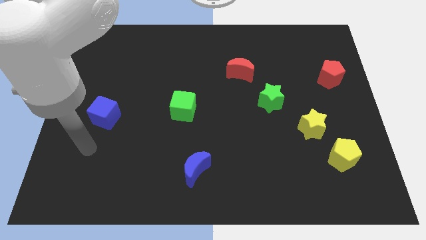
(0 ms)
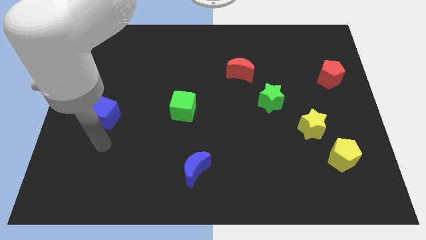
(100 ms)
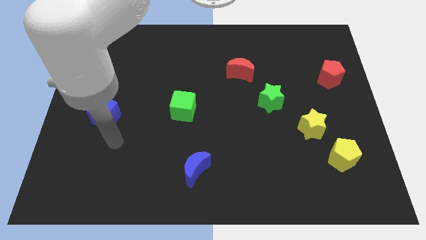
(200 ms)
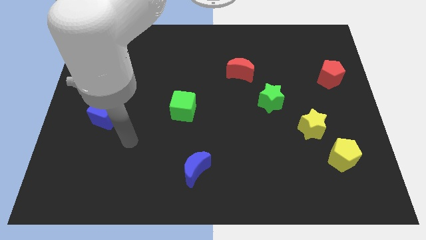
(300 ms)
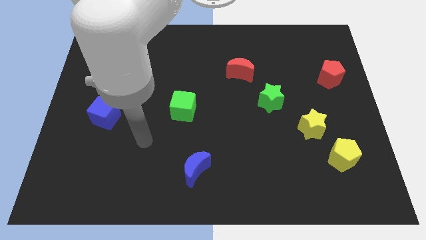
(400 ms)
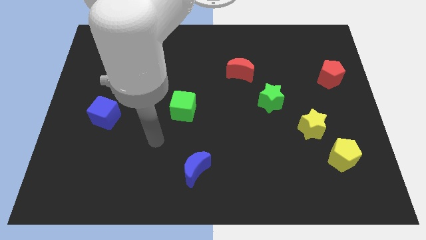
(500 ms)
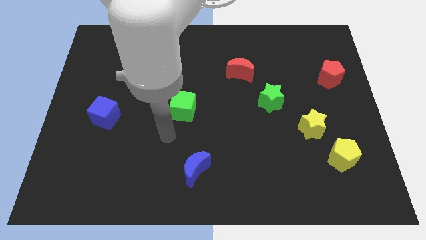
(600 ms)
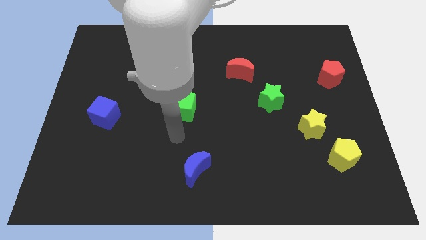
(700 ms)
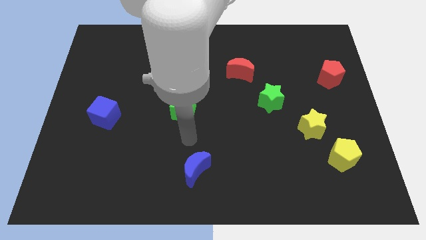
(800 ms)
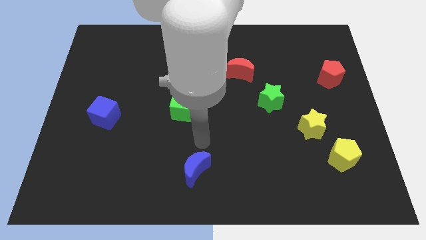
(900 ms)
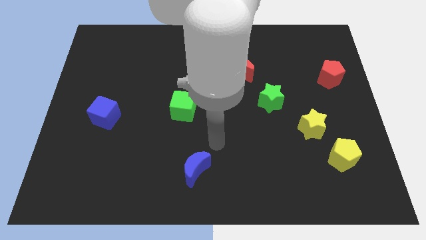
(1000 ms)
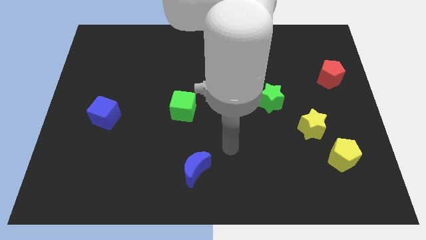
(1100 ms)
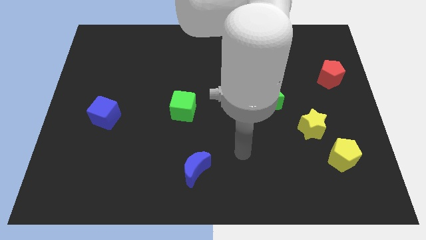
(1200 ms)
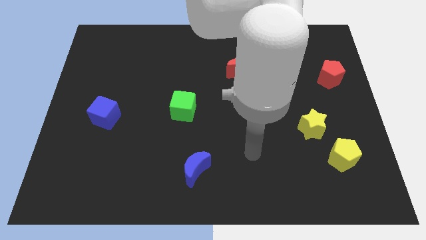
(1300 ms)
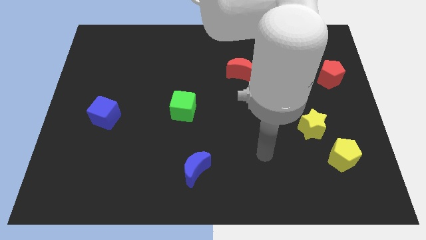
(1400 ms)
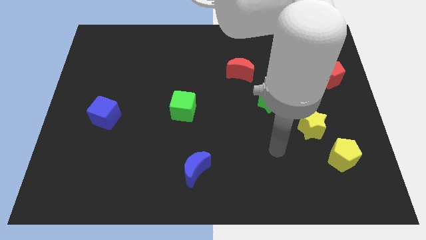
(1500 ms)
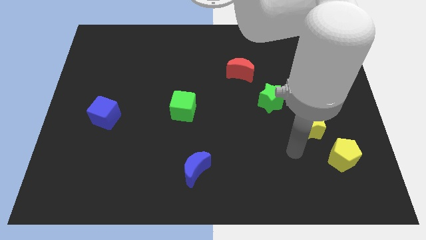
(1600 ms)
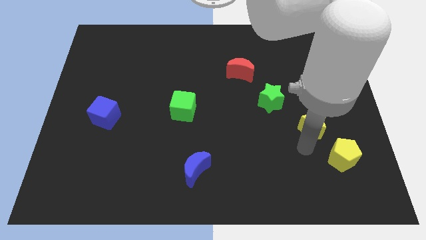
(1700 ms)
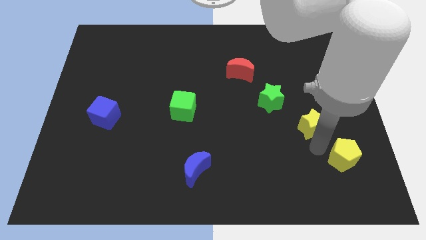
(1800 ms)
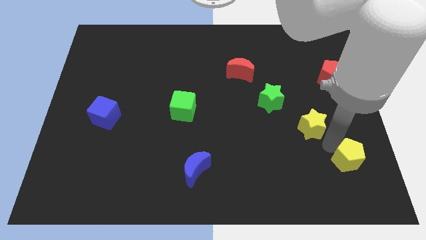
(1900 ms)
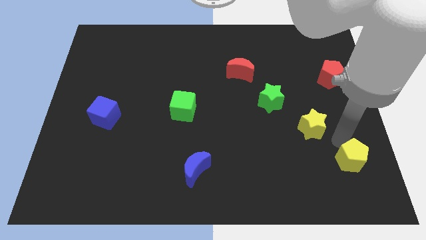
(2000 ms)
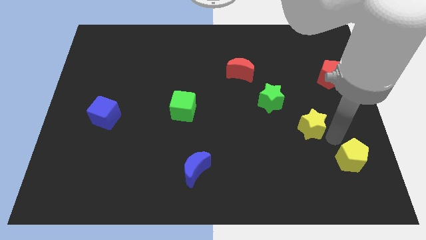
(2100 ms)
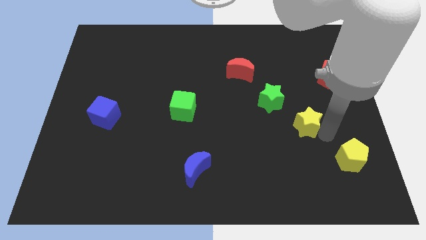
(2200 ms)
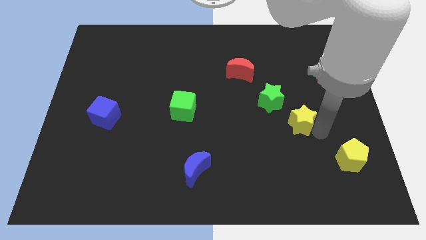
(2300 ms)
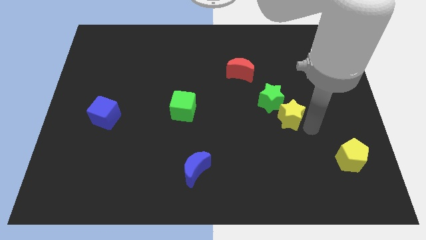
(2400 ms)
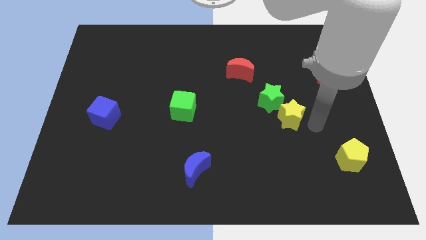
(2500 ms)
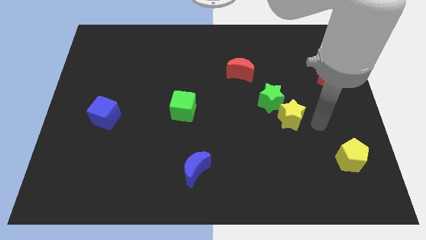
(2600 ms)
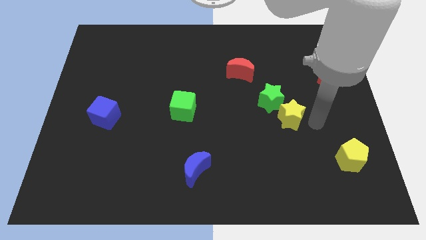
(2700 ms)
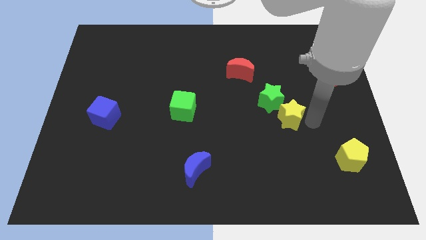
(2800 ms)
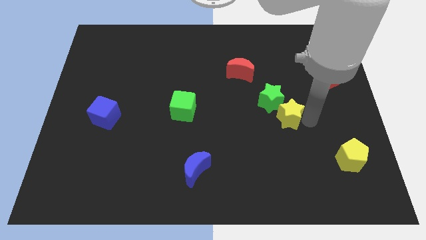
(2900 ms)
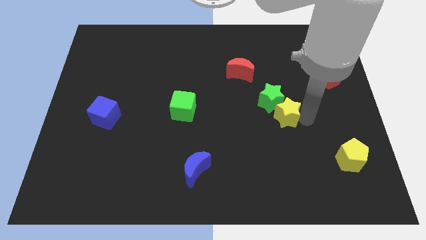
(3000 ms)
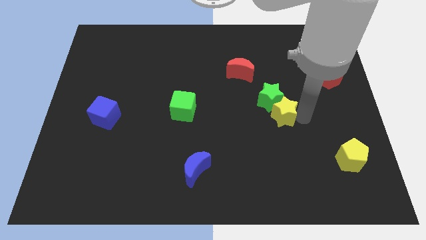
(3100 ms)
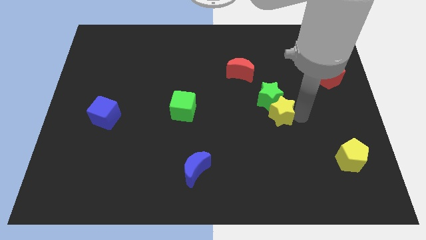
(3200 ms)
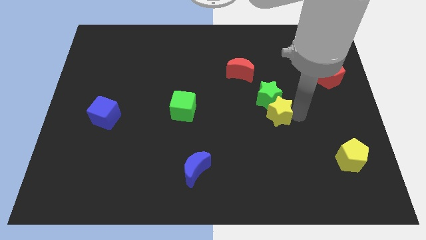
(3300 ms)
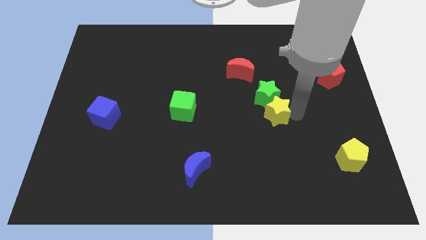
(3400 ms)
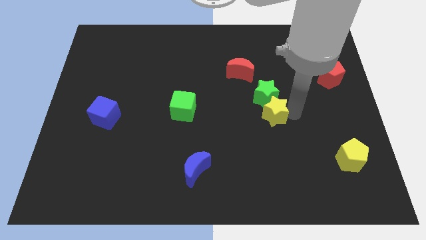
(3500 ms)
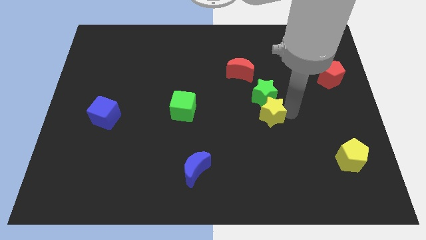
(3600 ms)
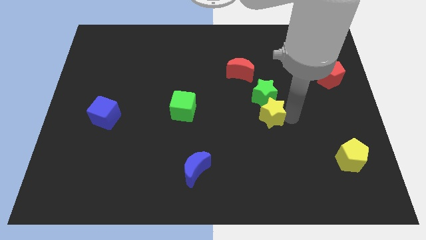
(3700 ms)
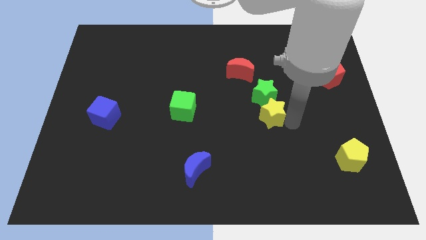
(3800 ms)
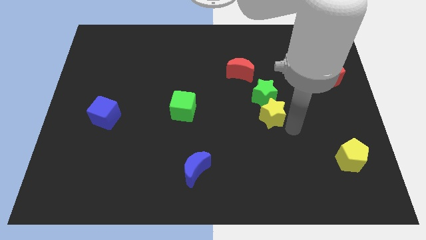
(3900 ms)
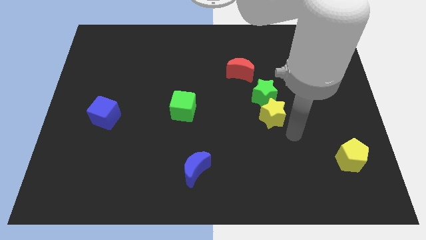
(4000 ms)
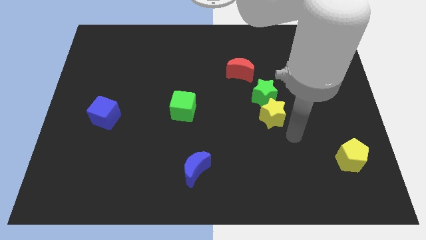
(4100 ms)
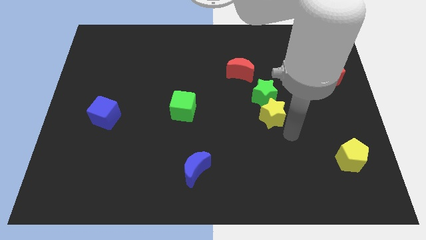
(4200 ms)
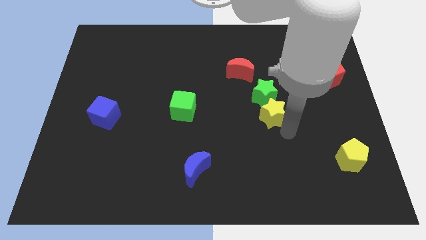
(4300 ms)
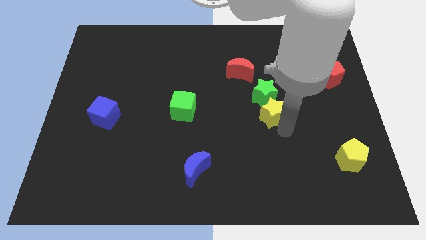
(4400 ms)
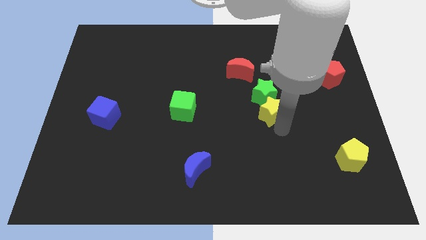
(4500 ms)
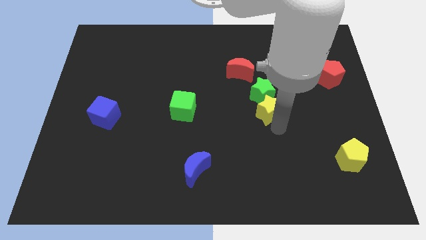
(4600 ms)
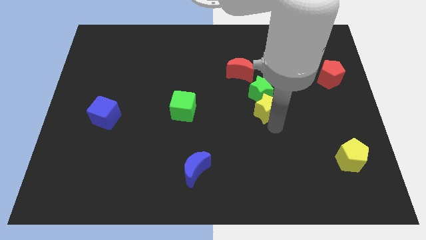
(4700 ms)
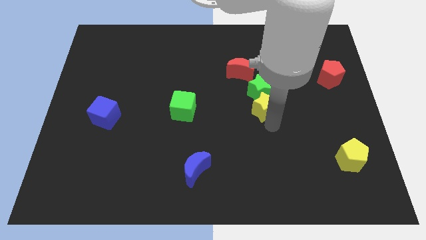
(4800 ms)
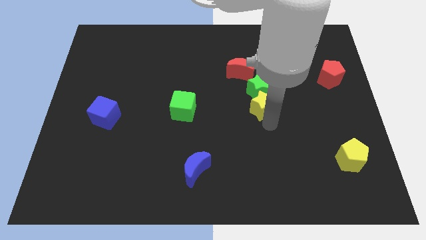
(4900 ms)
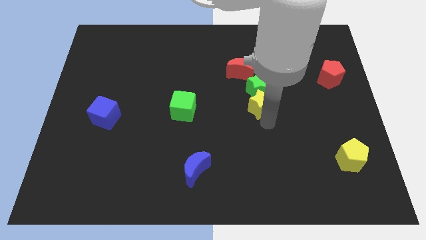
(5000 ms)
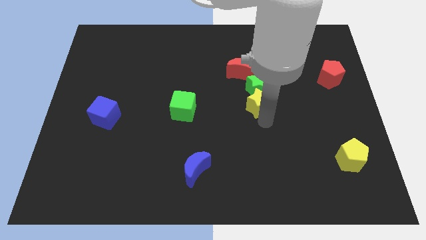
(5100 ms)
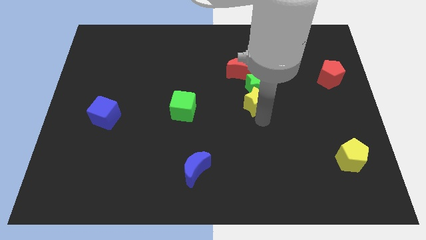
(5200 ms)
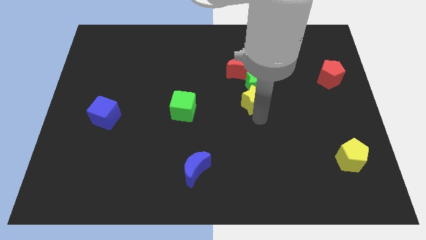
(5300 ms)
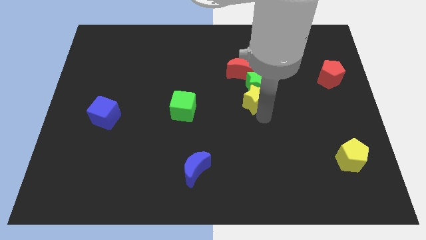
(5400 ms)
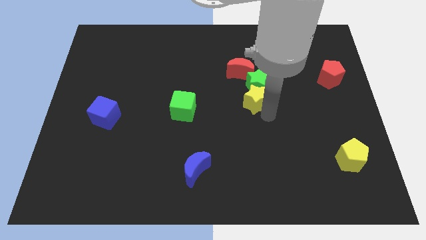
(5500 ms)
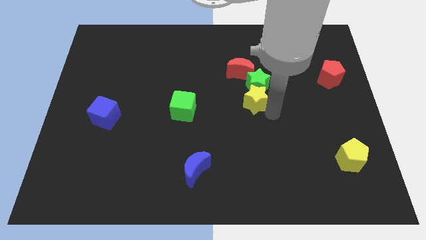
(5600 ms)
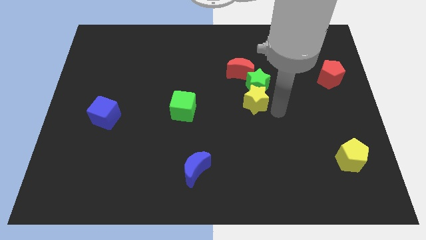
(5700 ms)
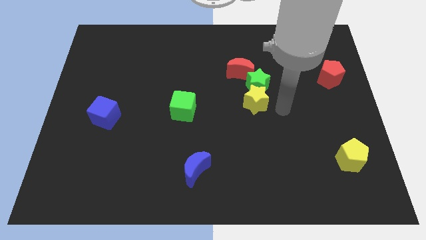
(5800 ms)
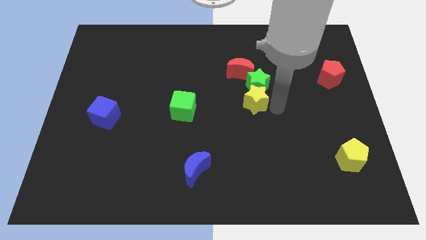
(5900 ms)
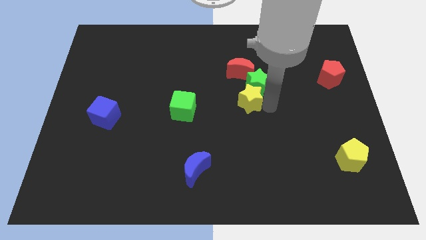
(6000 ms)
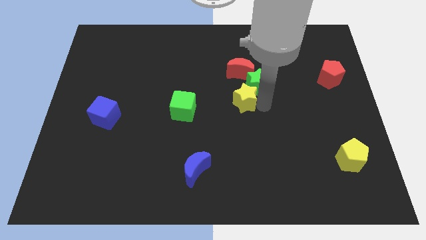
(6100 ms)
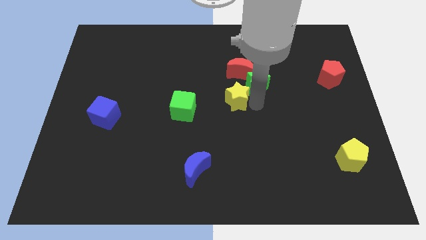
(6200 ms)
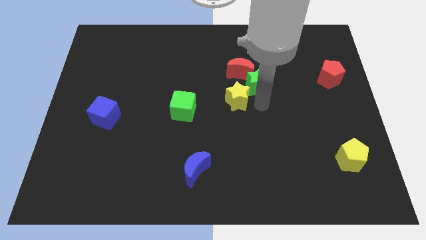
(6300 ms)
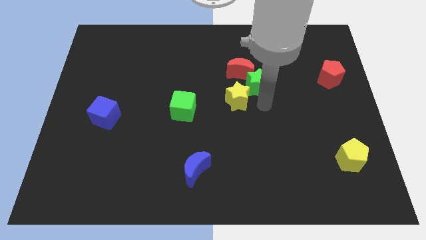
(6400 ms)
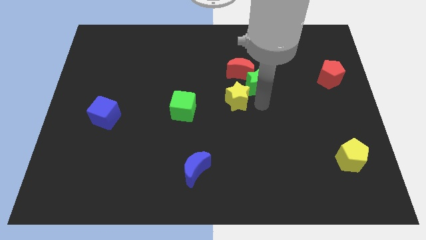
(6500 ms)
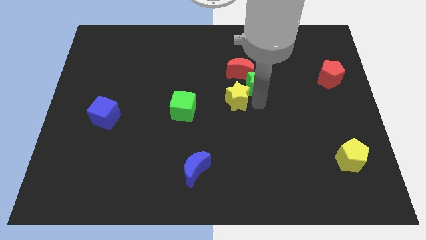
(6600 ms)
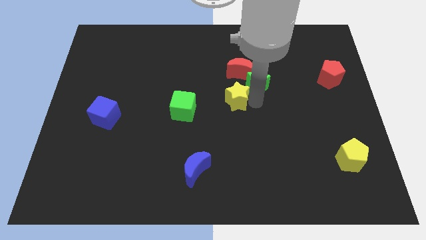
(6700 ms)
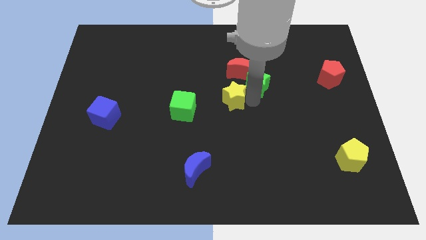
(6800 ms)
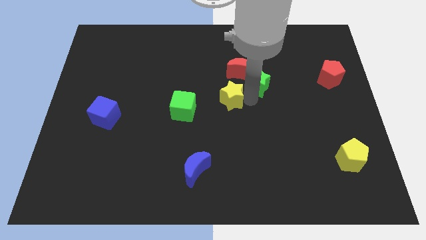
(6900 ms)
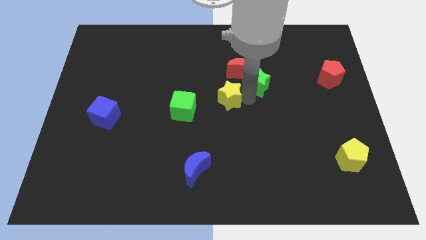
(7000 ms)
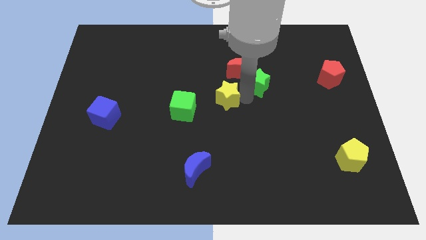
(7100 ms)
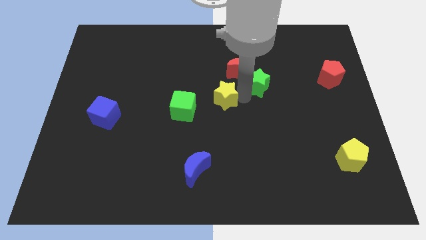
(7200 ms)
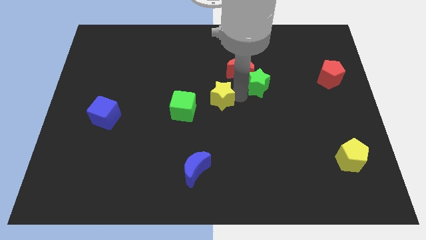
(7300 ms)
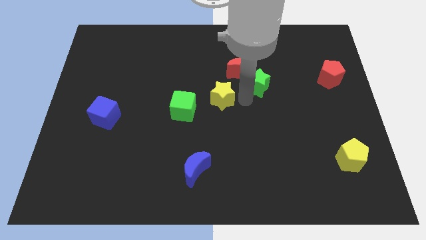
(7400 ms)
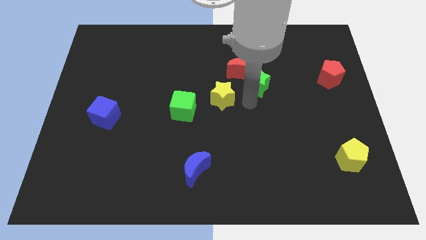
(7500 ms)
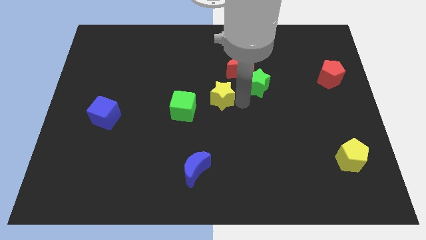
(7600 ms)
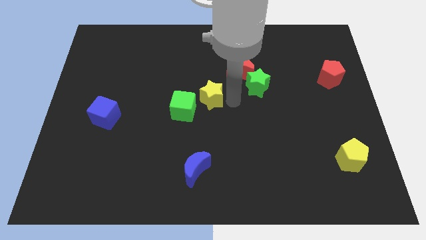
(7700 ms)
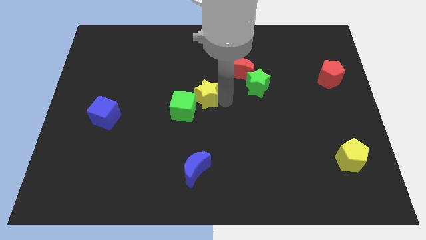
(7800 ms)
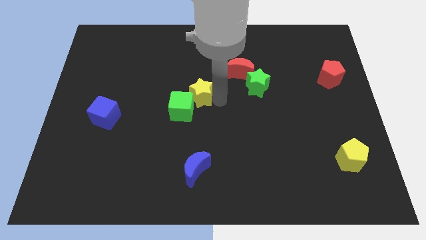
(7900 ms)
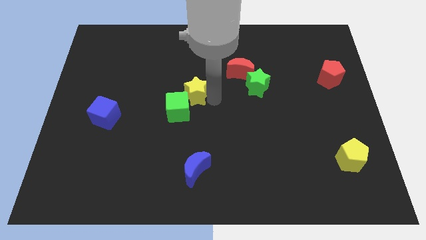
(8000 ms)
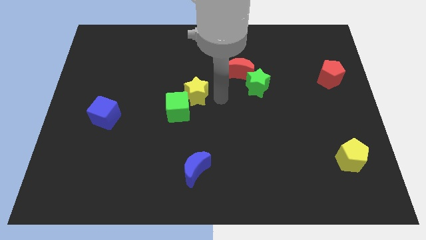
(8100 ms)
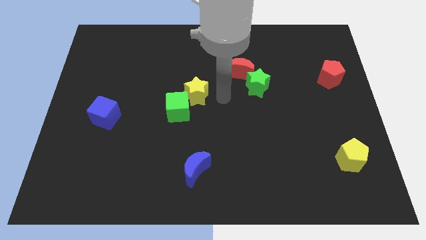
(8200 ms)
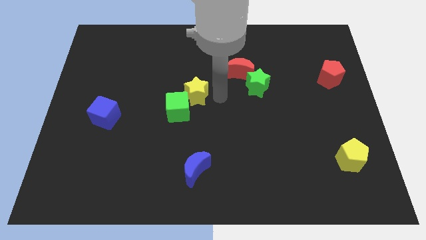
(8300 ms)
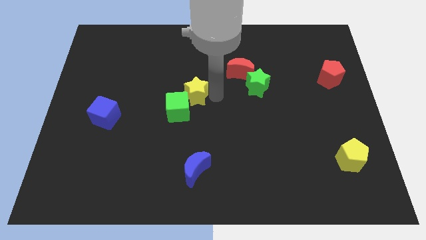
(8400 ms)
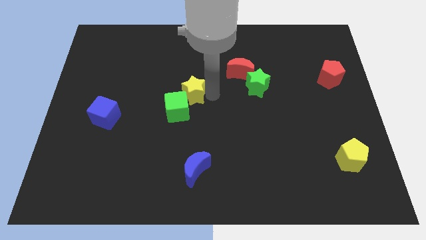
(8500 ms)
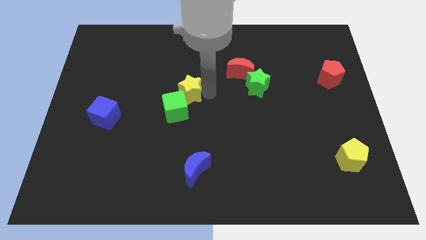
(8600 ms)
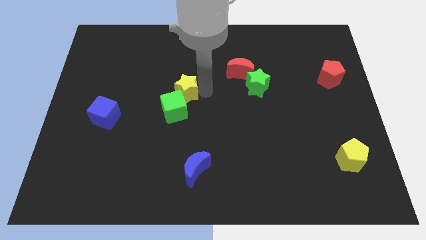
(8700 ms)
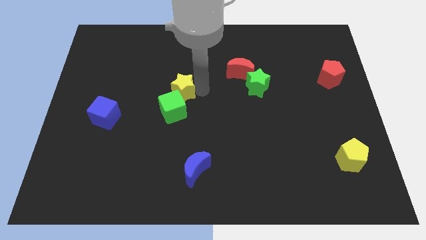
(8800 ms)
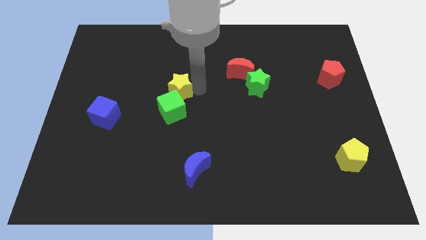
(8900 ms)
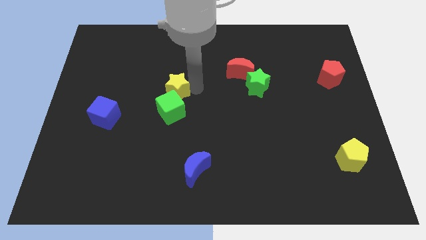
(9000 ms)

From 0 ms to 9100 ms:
slide the yellow star to the top left of the green cube
